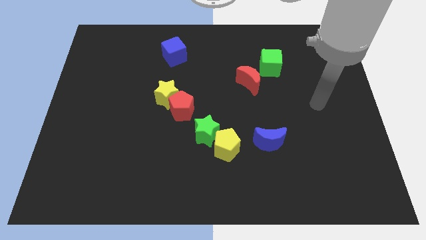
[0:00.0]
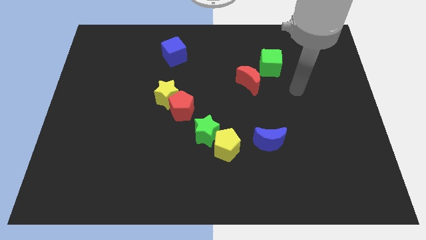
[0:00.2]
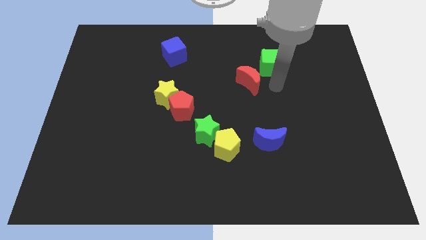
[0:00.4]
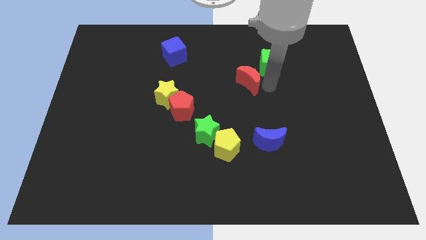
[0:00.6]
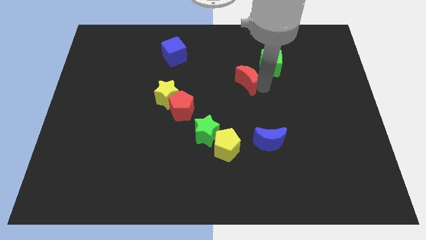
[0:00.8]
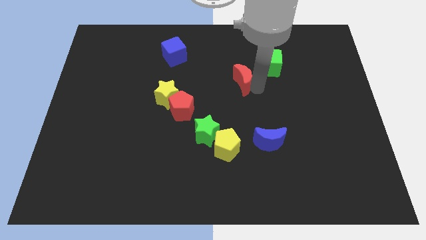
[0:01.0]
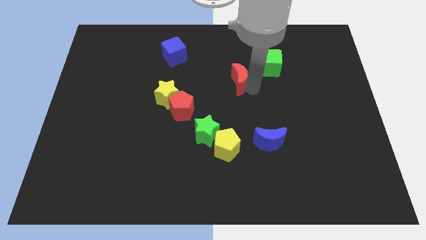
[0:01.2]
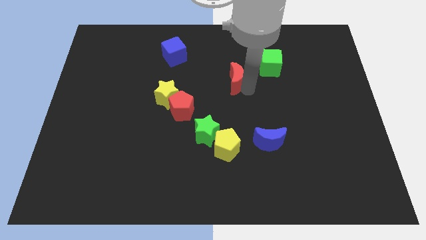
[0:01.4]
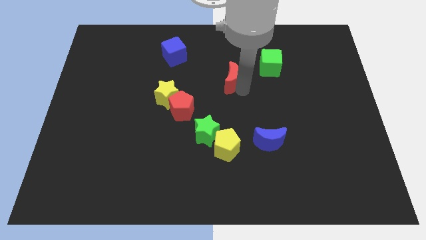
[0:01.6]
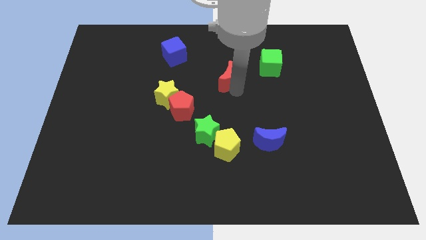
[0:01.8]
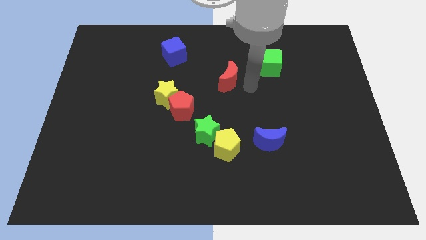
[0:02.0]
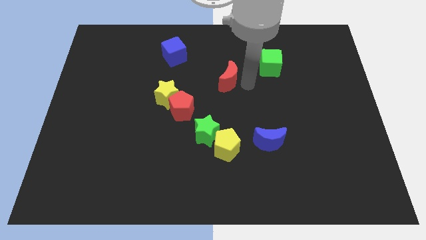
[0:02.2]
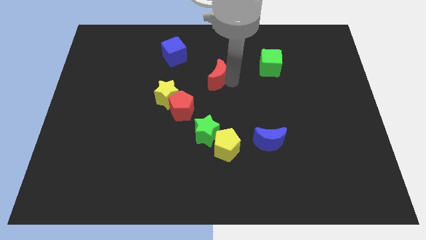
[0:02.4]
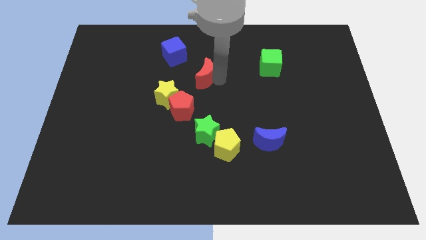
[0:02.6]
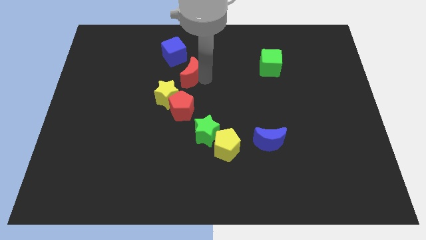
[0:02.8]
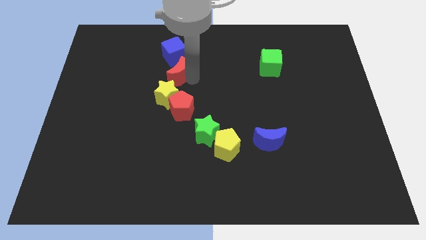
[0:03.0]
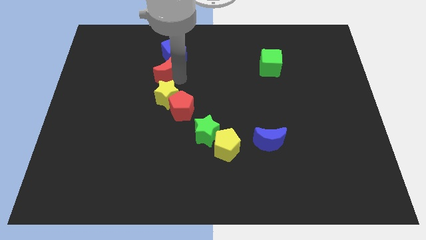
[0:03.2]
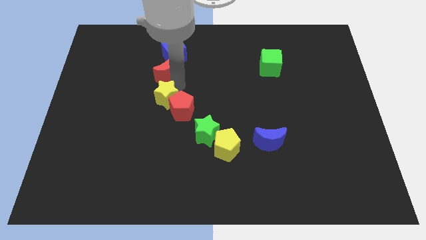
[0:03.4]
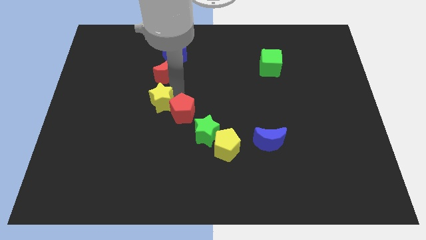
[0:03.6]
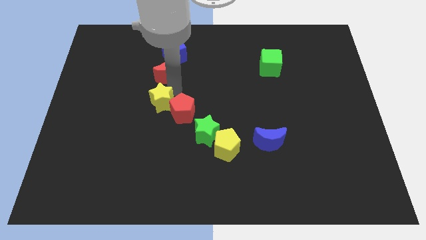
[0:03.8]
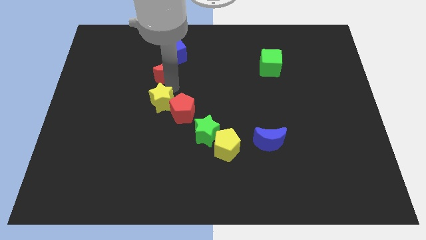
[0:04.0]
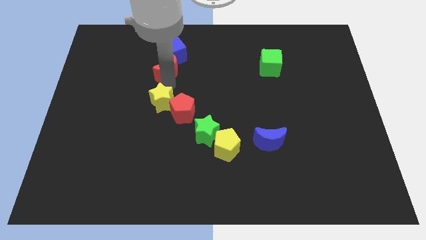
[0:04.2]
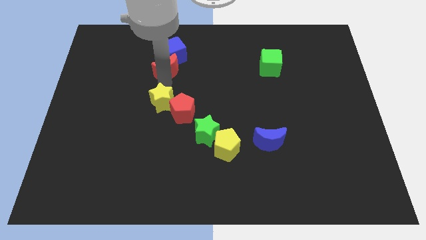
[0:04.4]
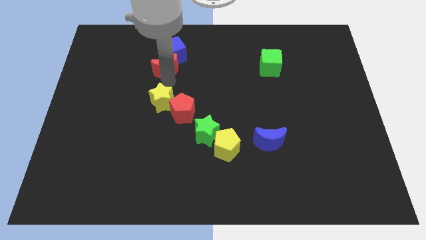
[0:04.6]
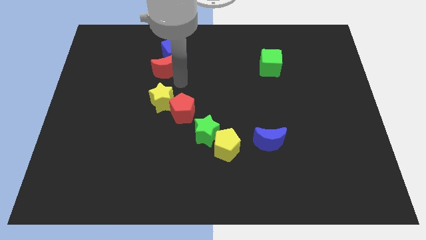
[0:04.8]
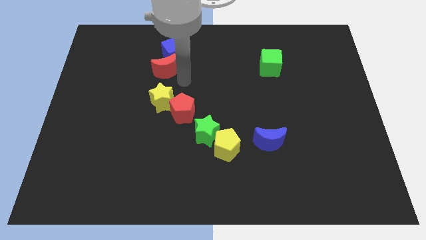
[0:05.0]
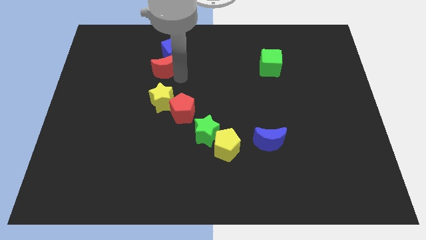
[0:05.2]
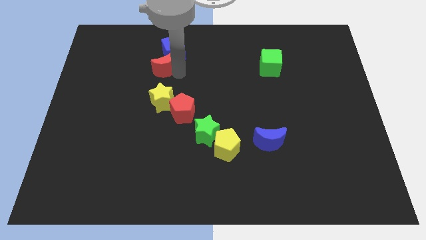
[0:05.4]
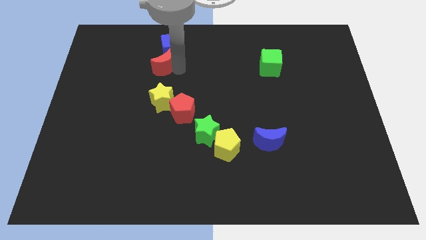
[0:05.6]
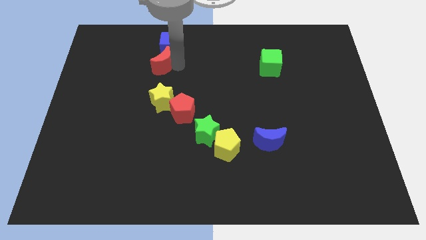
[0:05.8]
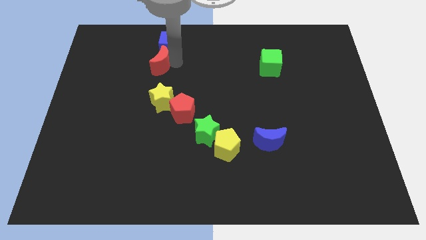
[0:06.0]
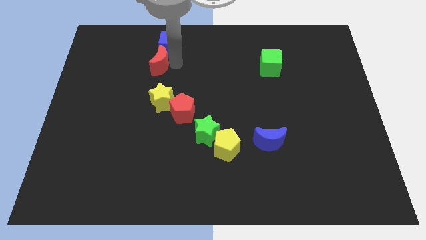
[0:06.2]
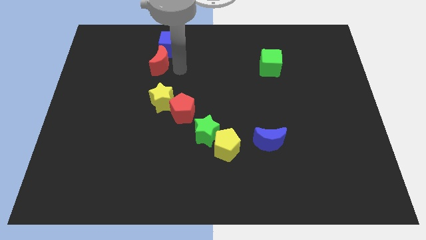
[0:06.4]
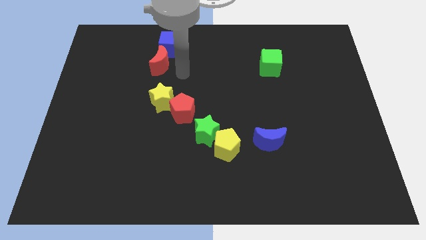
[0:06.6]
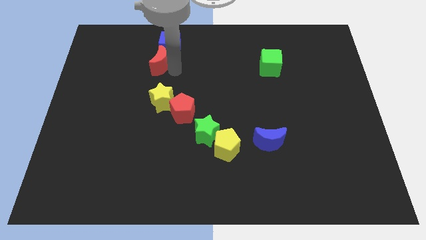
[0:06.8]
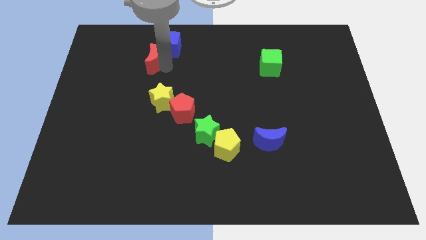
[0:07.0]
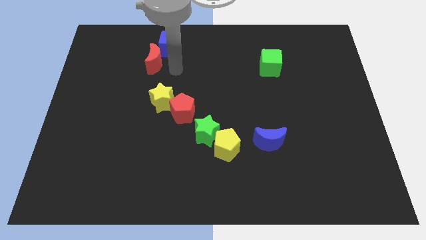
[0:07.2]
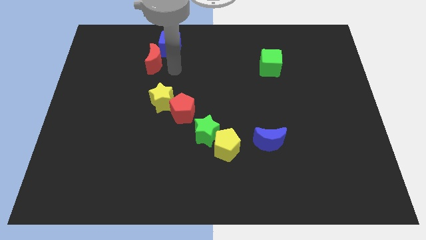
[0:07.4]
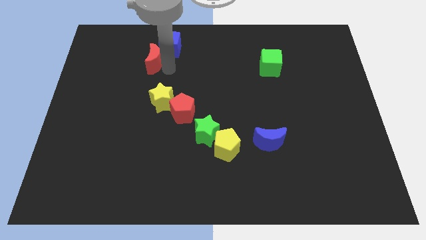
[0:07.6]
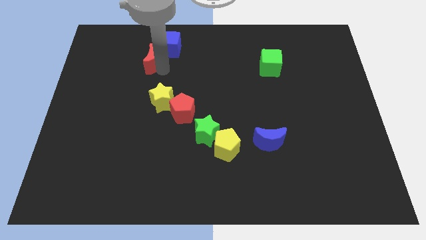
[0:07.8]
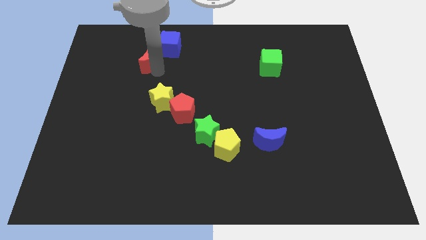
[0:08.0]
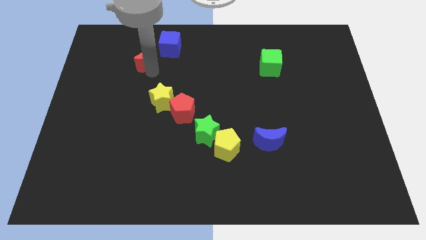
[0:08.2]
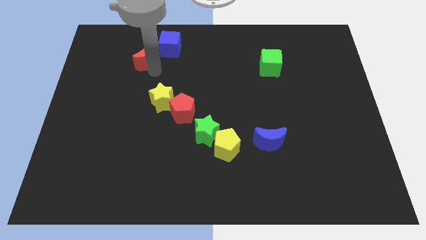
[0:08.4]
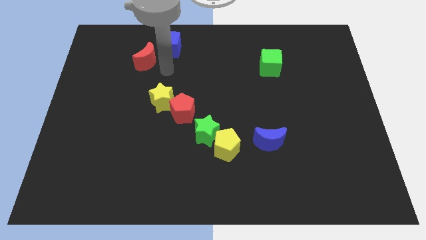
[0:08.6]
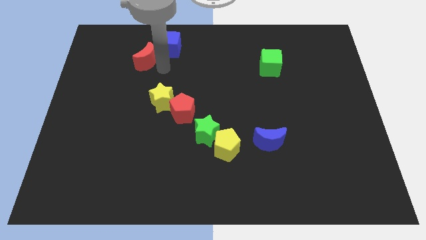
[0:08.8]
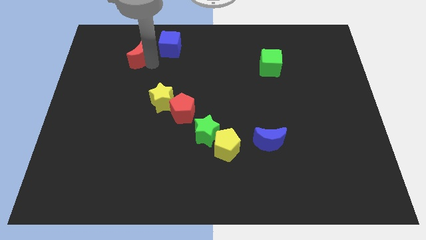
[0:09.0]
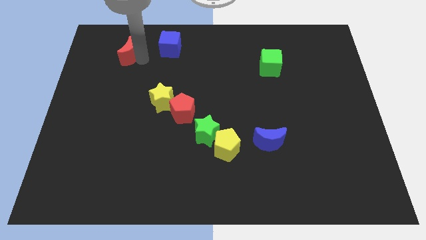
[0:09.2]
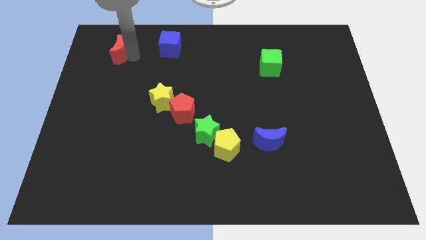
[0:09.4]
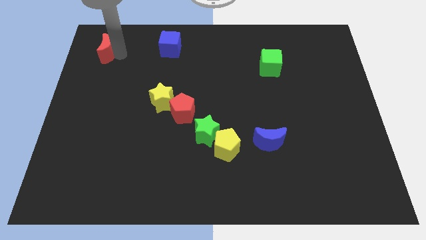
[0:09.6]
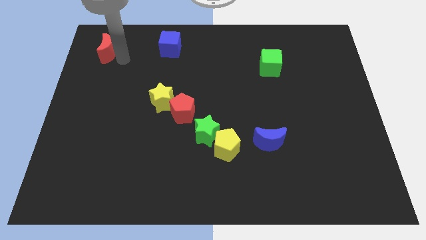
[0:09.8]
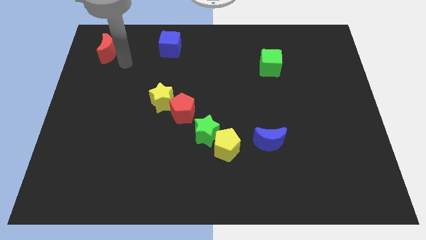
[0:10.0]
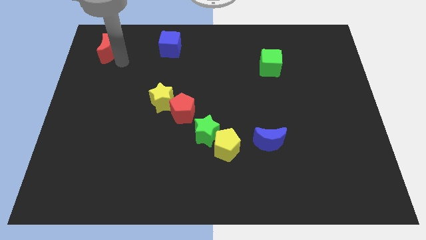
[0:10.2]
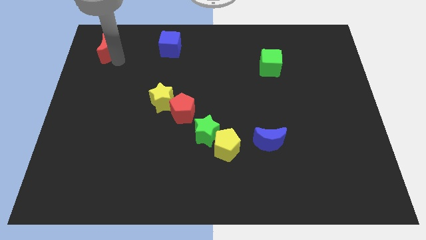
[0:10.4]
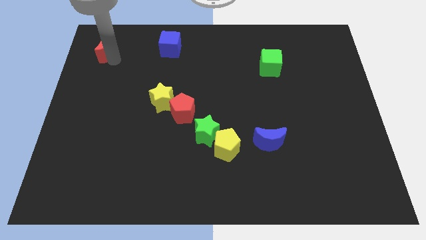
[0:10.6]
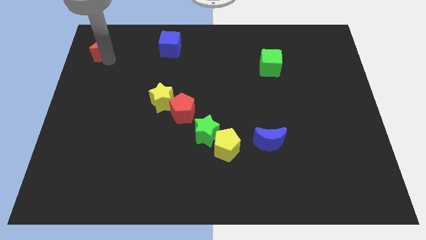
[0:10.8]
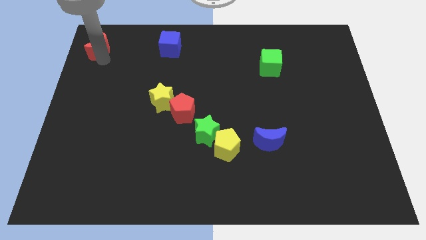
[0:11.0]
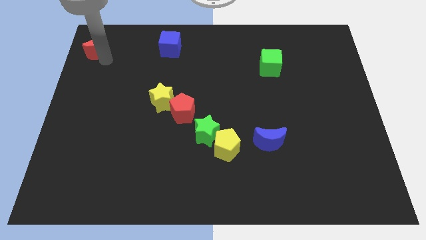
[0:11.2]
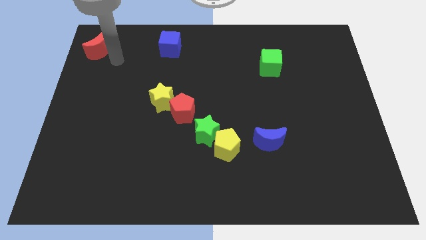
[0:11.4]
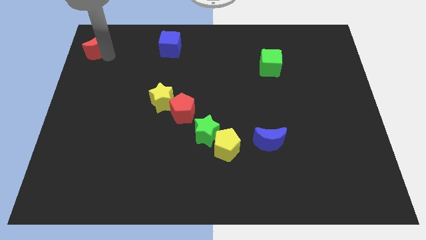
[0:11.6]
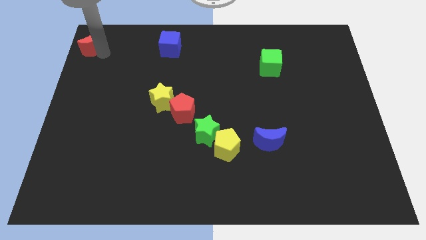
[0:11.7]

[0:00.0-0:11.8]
slide the red moon to the top left
